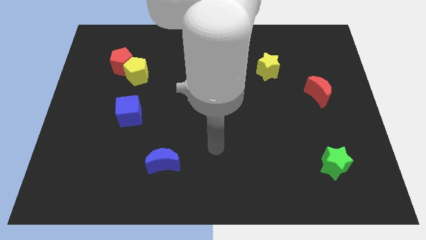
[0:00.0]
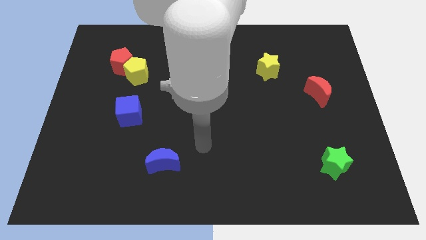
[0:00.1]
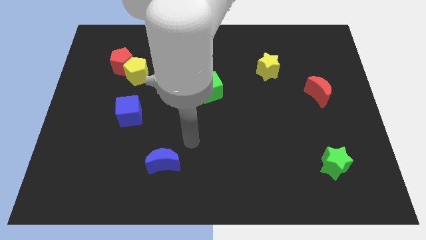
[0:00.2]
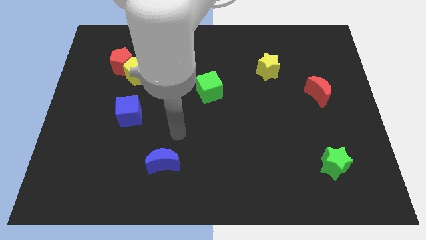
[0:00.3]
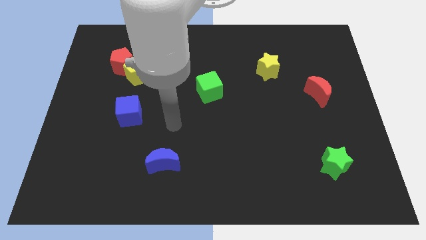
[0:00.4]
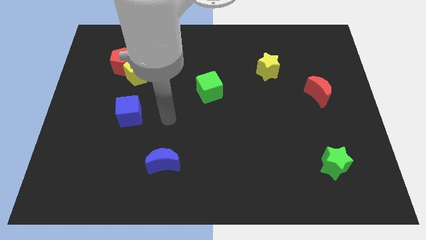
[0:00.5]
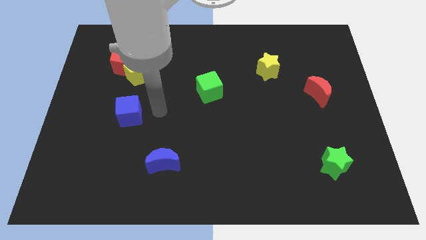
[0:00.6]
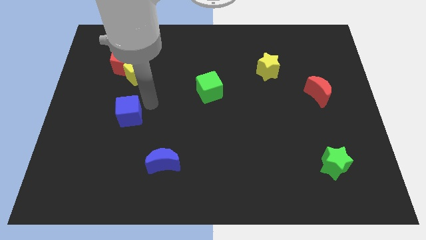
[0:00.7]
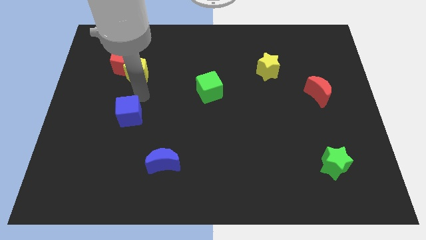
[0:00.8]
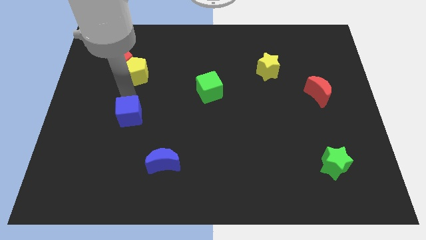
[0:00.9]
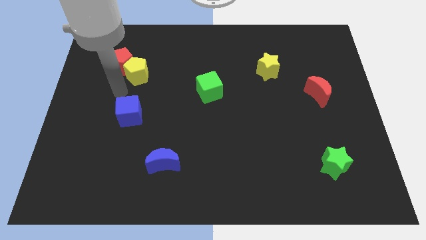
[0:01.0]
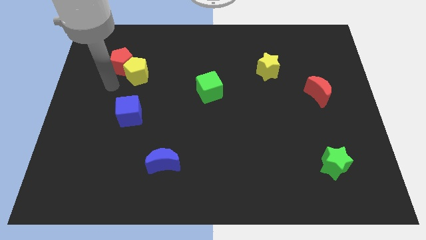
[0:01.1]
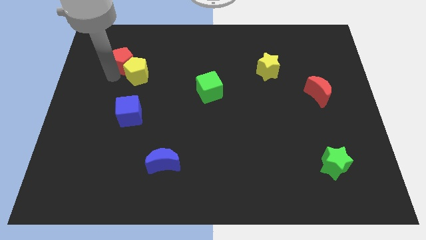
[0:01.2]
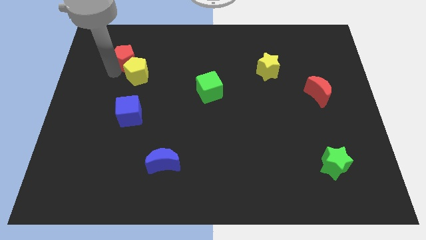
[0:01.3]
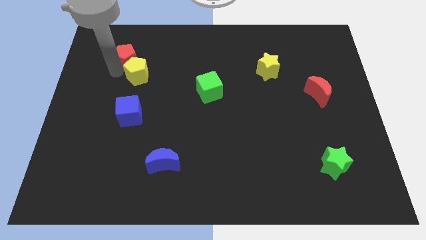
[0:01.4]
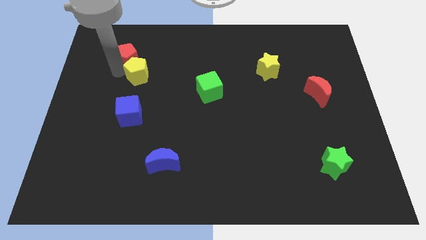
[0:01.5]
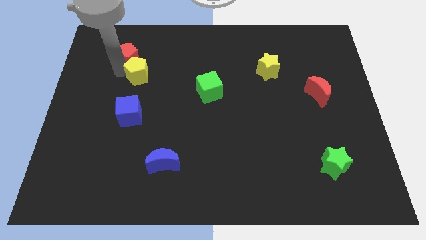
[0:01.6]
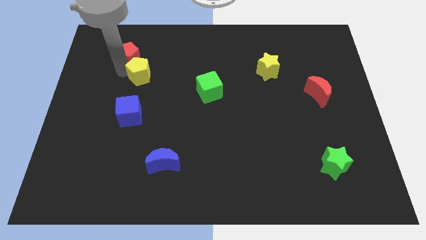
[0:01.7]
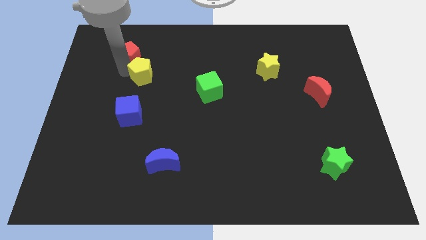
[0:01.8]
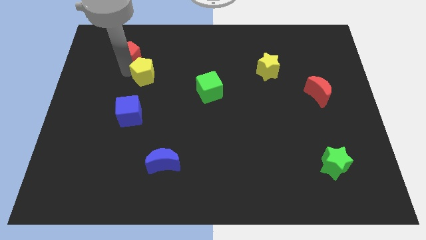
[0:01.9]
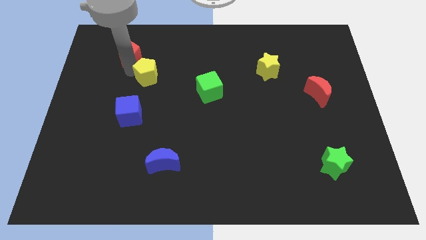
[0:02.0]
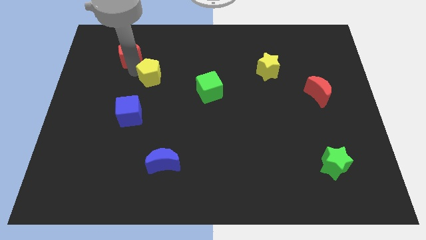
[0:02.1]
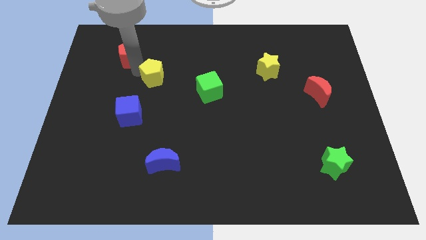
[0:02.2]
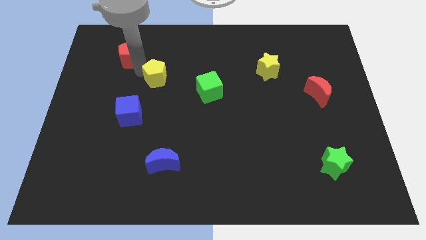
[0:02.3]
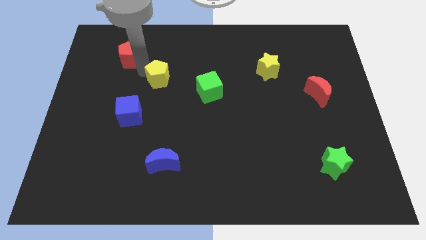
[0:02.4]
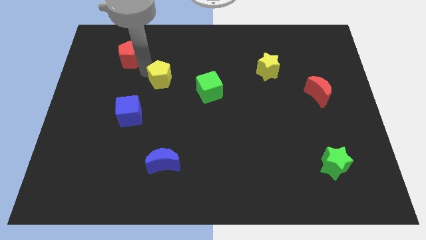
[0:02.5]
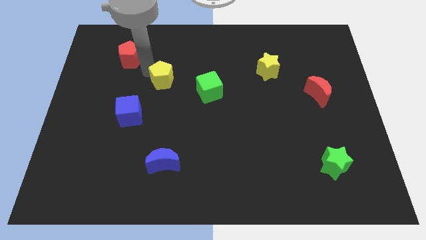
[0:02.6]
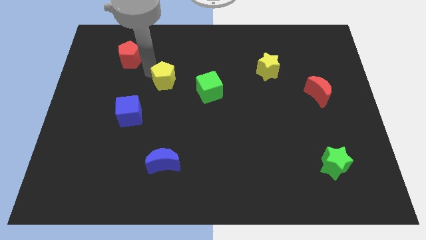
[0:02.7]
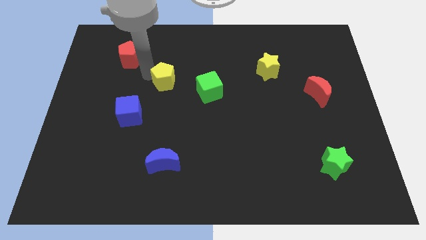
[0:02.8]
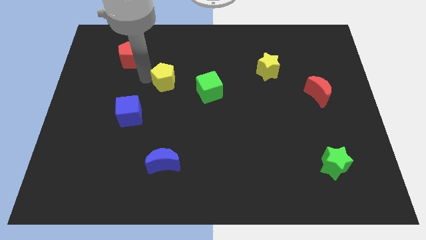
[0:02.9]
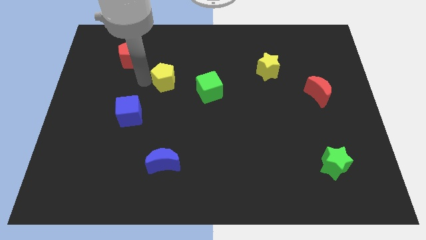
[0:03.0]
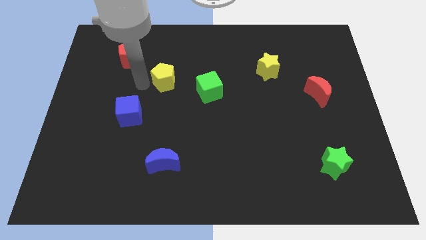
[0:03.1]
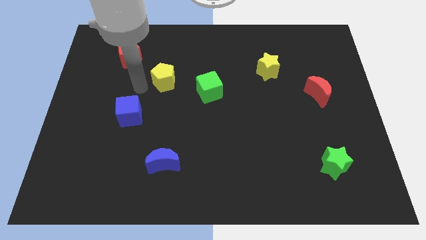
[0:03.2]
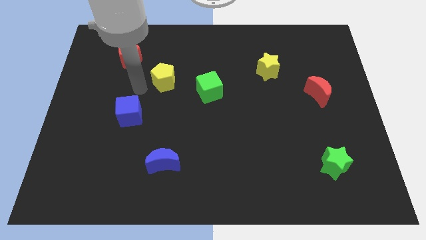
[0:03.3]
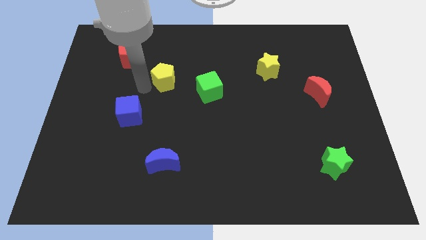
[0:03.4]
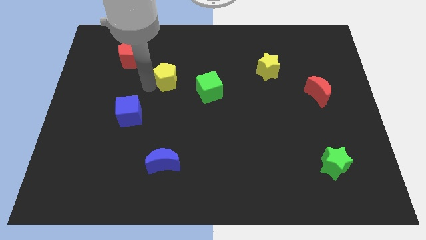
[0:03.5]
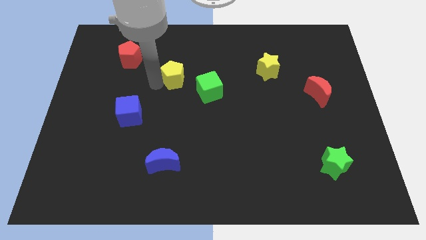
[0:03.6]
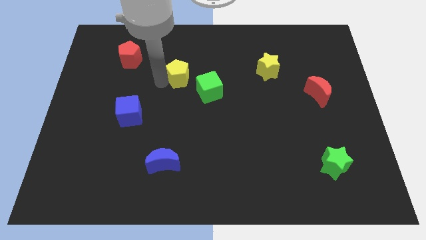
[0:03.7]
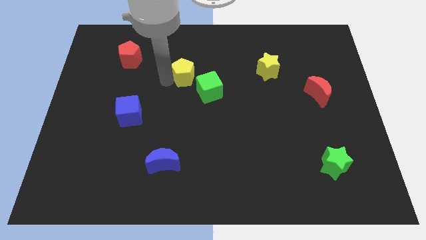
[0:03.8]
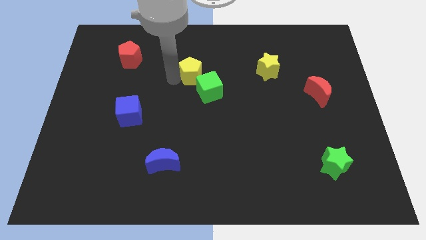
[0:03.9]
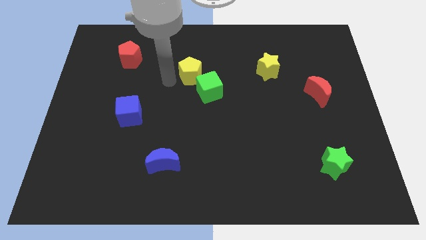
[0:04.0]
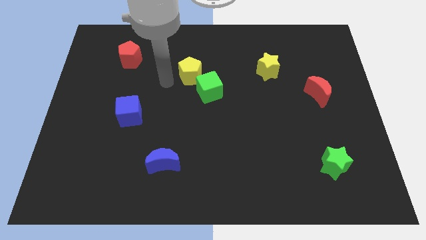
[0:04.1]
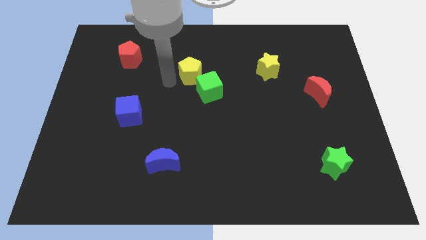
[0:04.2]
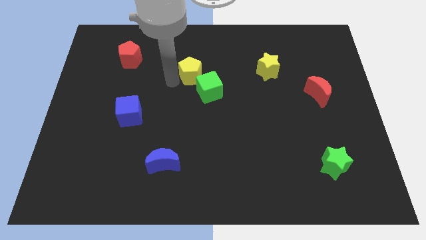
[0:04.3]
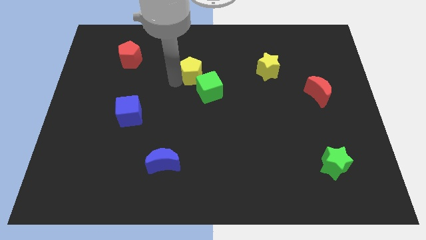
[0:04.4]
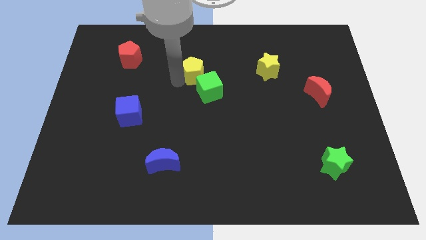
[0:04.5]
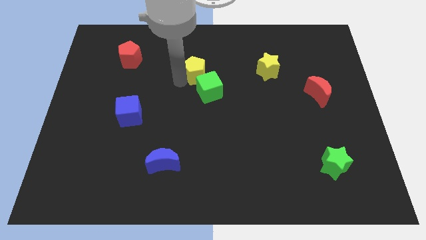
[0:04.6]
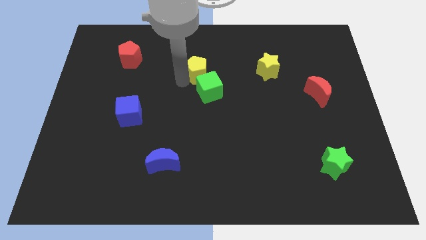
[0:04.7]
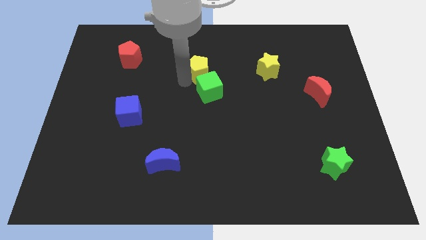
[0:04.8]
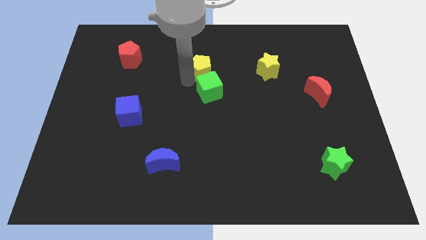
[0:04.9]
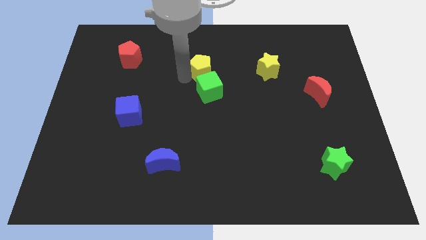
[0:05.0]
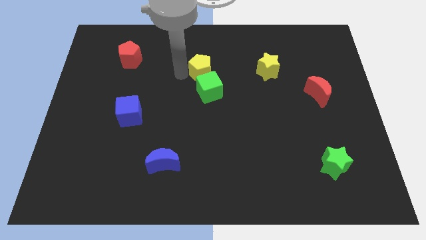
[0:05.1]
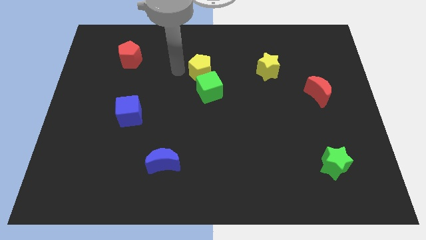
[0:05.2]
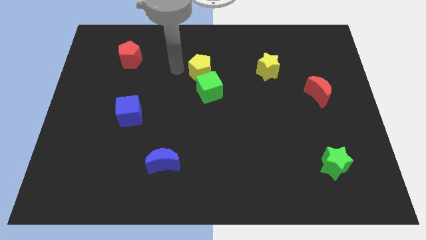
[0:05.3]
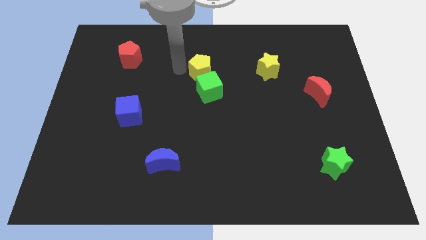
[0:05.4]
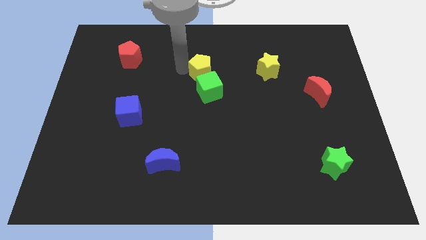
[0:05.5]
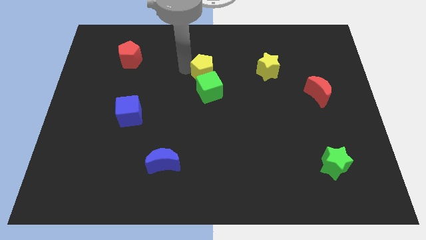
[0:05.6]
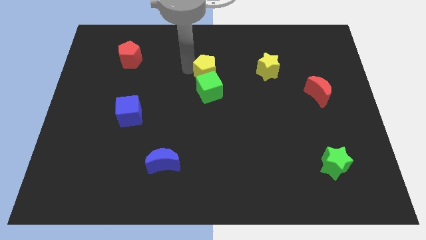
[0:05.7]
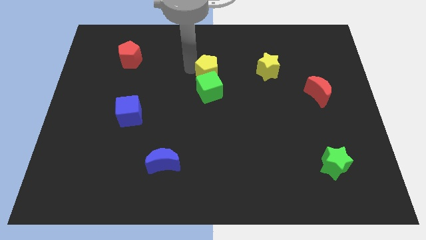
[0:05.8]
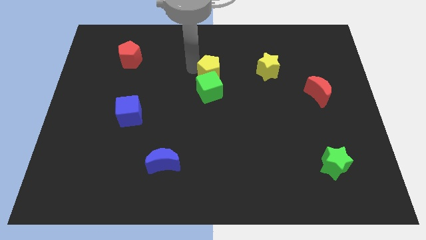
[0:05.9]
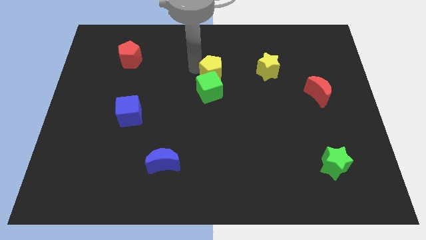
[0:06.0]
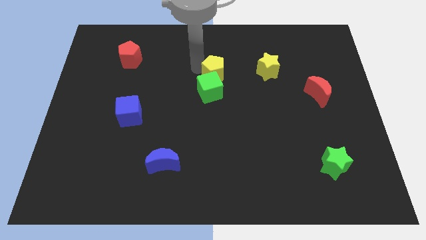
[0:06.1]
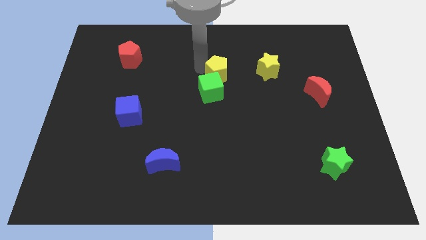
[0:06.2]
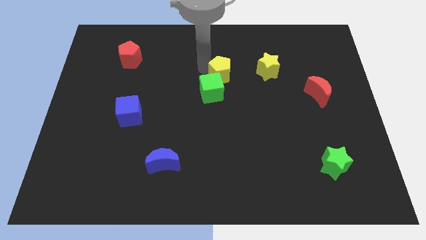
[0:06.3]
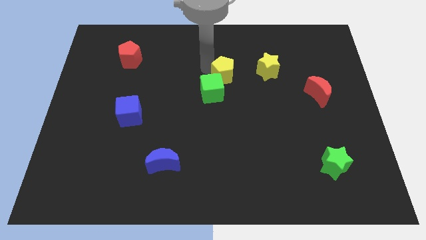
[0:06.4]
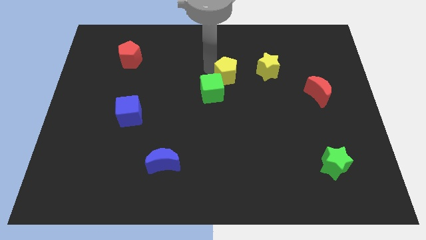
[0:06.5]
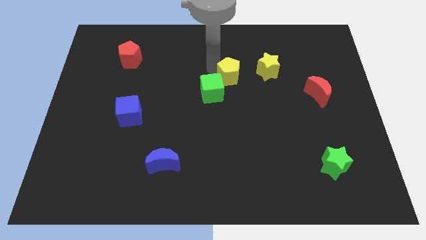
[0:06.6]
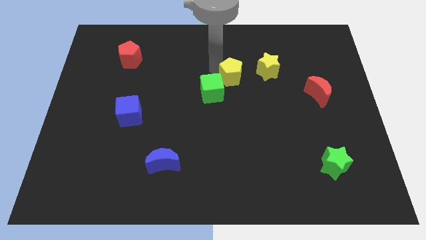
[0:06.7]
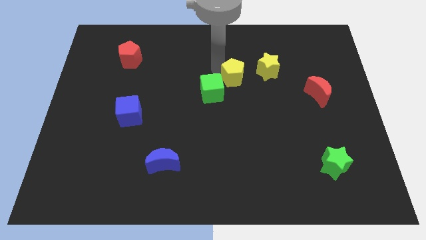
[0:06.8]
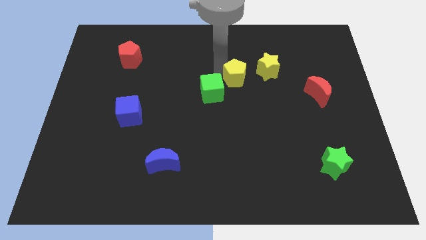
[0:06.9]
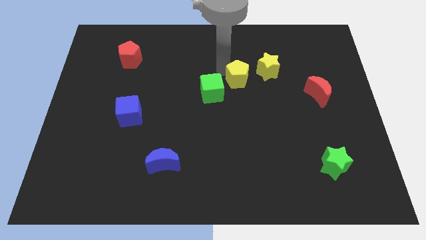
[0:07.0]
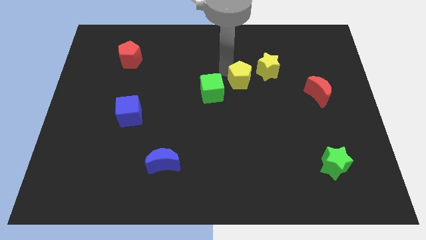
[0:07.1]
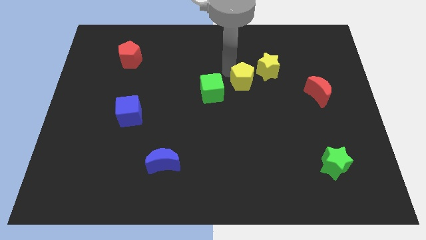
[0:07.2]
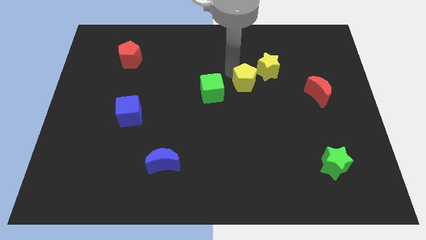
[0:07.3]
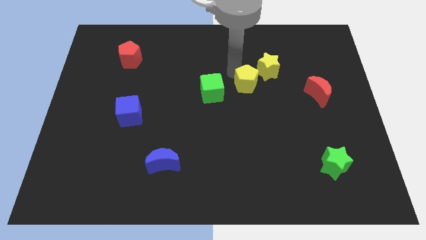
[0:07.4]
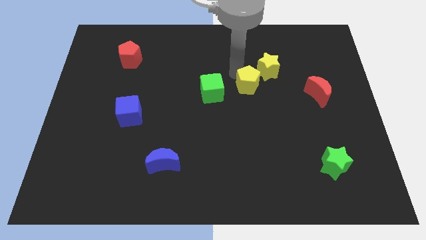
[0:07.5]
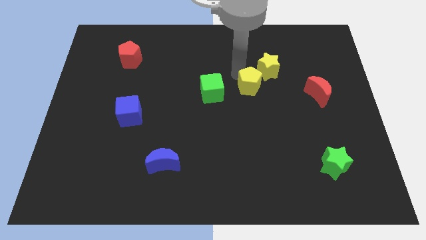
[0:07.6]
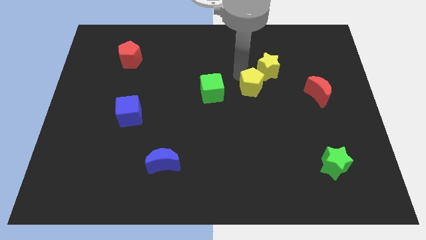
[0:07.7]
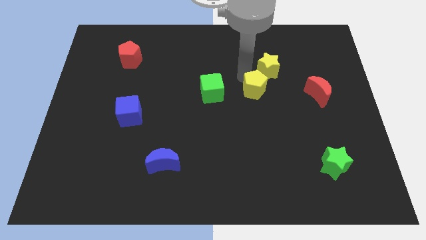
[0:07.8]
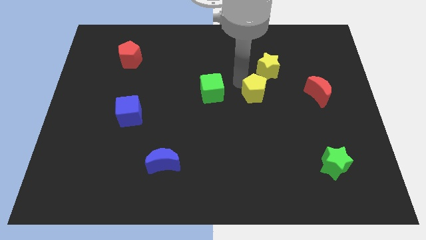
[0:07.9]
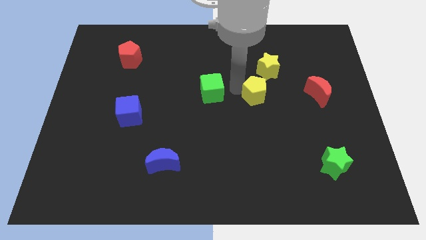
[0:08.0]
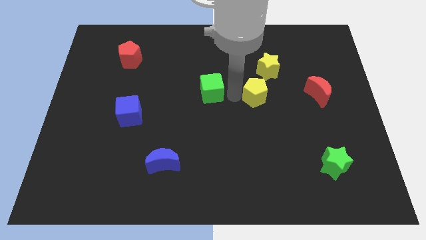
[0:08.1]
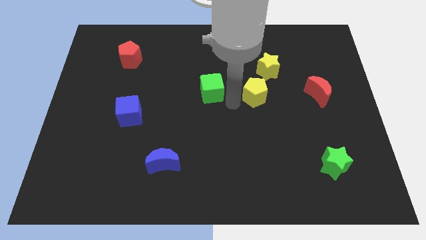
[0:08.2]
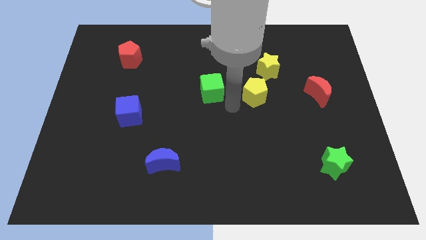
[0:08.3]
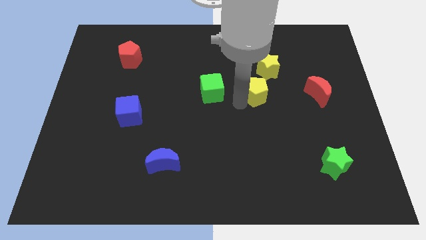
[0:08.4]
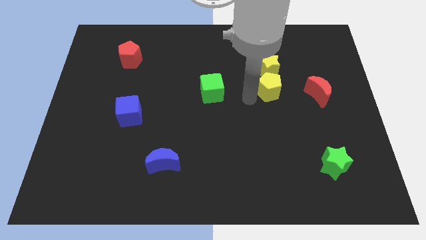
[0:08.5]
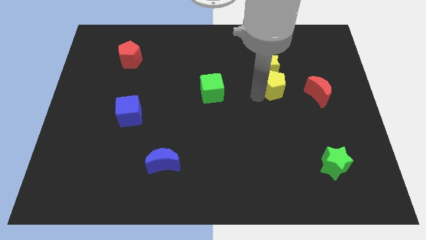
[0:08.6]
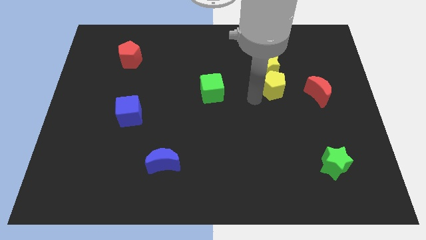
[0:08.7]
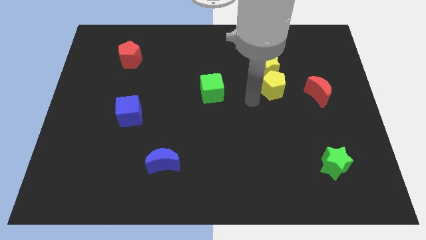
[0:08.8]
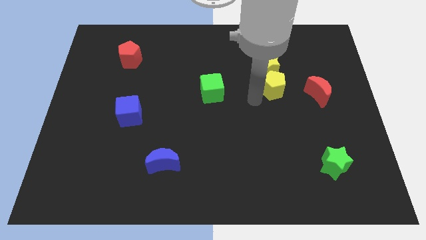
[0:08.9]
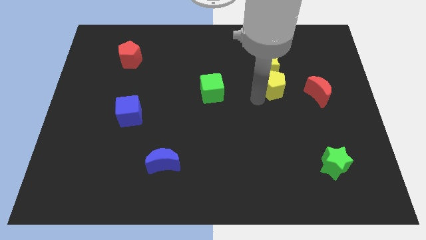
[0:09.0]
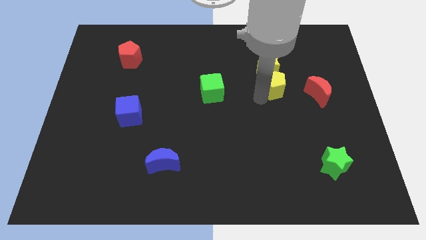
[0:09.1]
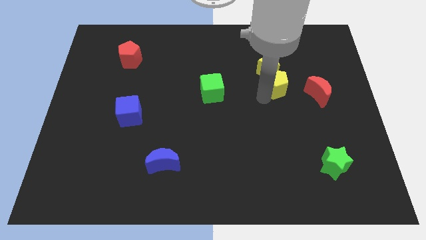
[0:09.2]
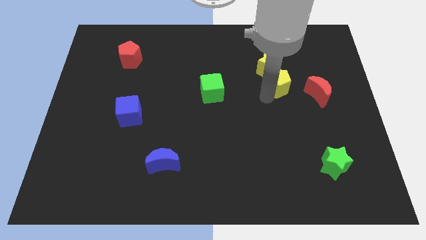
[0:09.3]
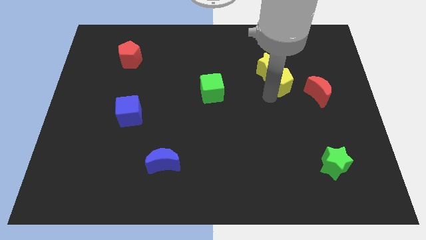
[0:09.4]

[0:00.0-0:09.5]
slide the yellow pentagon to the top left of the red moon
